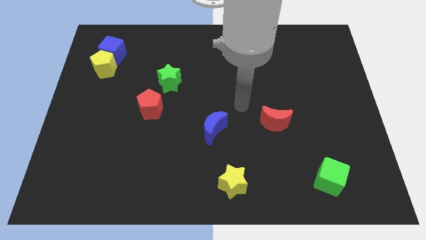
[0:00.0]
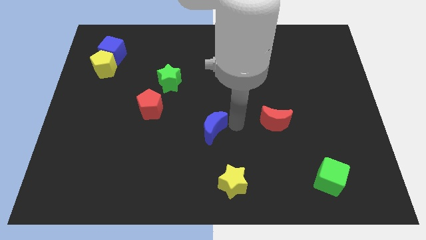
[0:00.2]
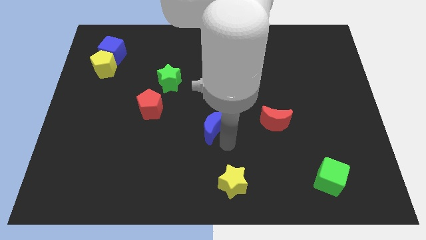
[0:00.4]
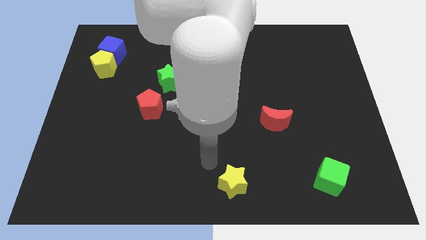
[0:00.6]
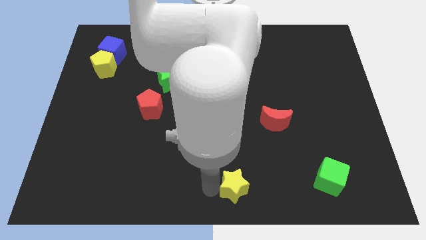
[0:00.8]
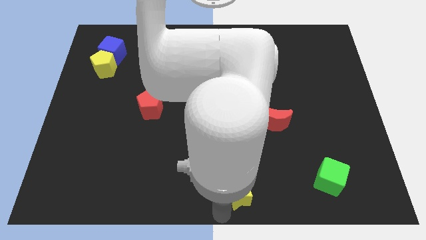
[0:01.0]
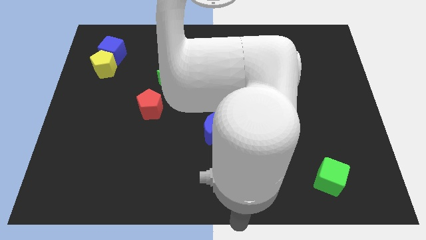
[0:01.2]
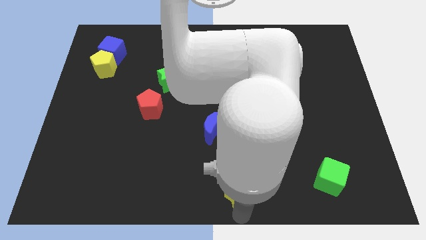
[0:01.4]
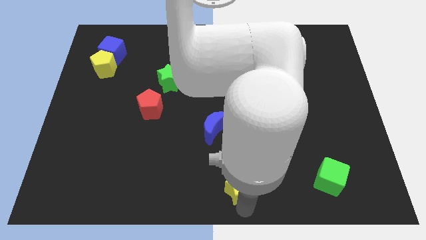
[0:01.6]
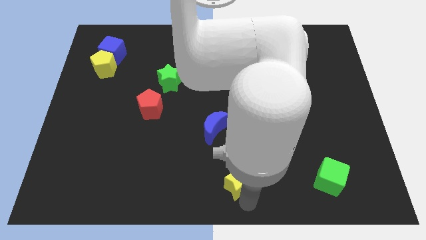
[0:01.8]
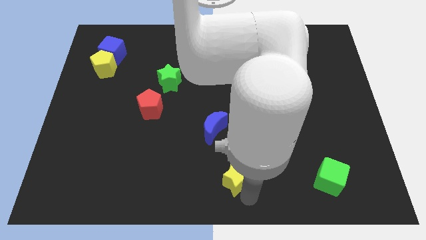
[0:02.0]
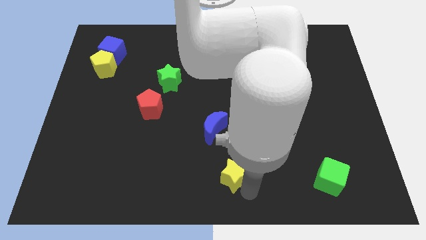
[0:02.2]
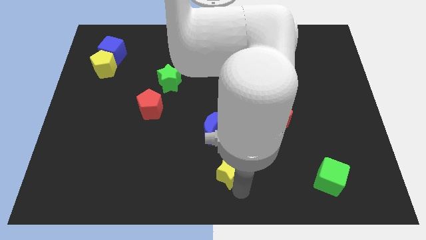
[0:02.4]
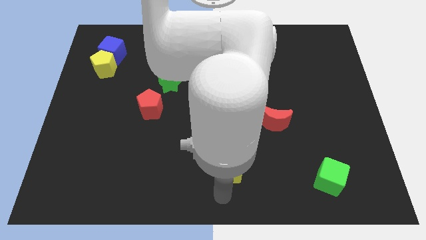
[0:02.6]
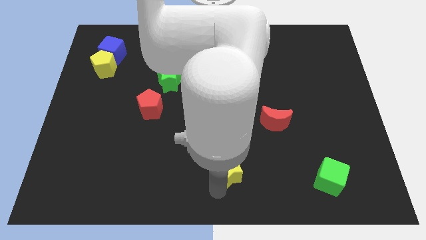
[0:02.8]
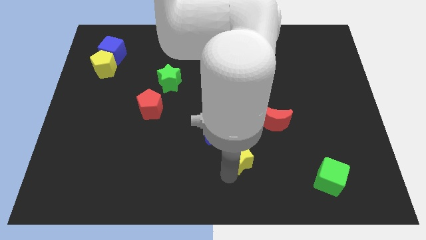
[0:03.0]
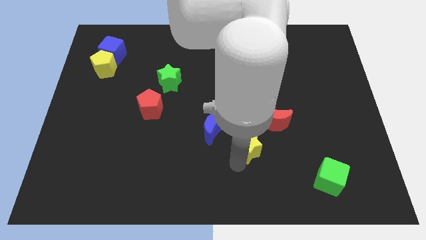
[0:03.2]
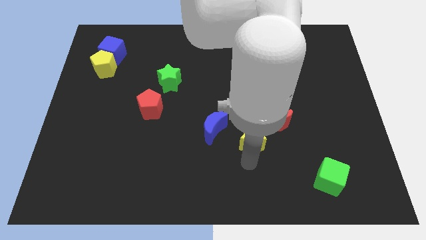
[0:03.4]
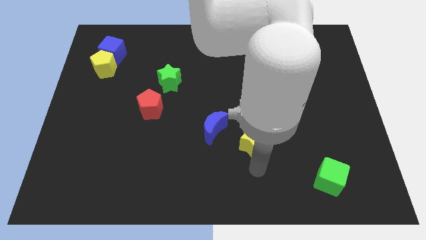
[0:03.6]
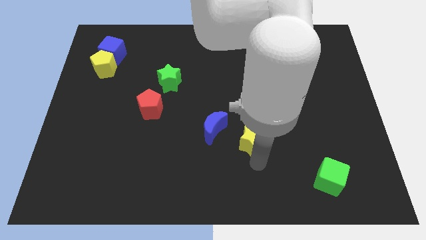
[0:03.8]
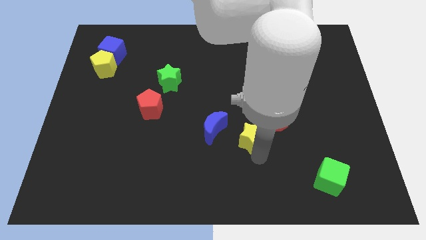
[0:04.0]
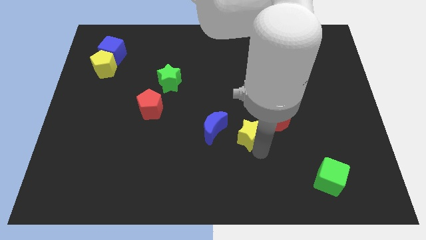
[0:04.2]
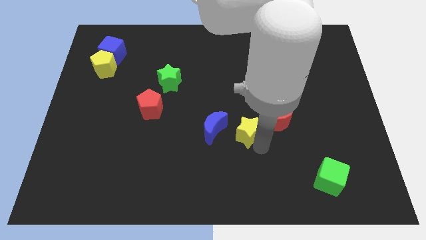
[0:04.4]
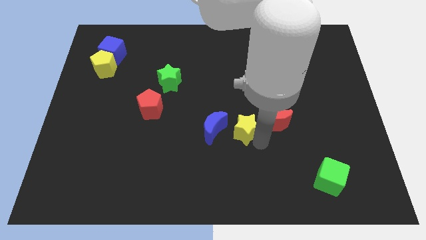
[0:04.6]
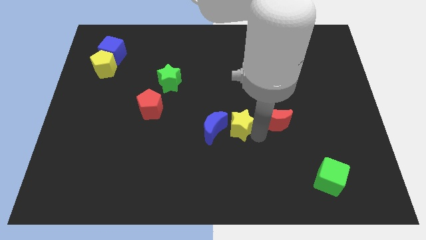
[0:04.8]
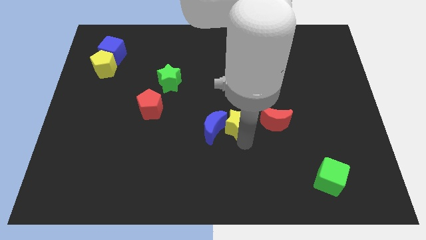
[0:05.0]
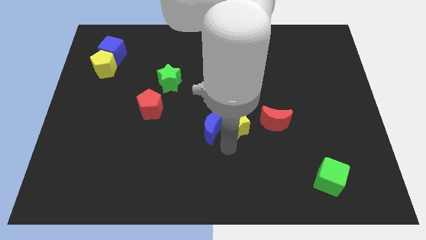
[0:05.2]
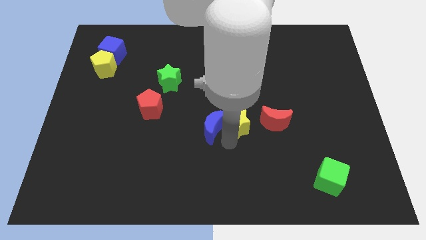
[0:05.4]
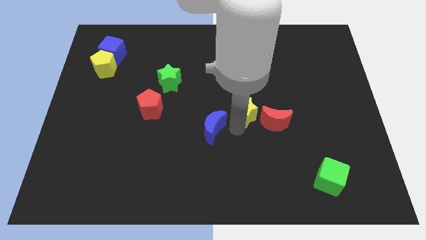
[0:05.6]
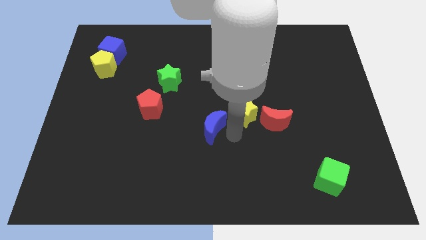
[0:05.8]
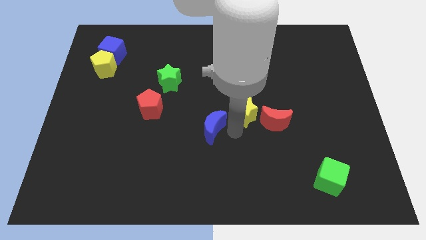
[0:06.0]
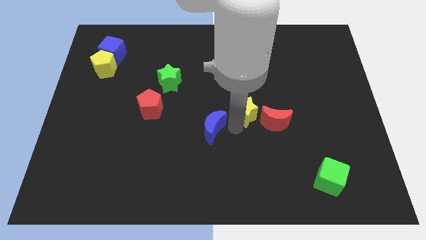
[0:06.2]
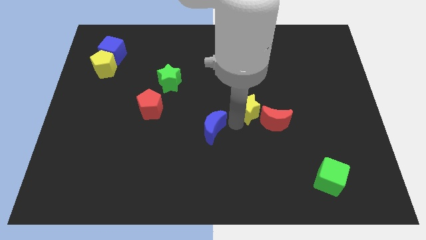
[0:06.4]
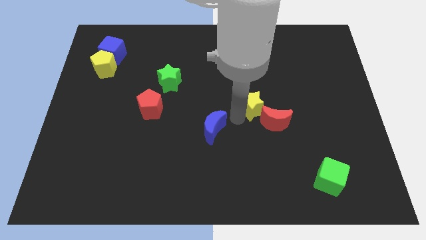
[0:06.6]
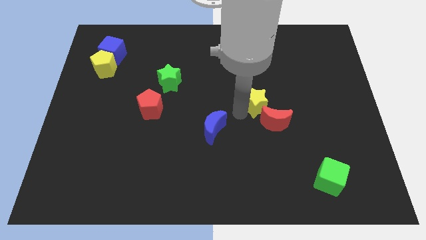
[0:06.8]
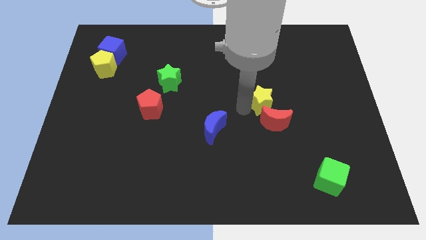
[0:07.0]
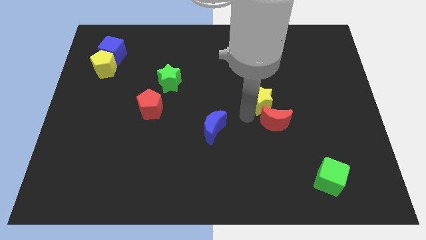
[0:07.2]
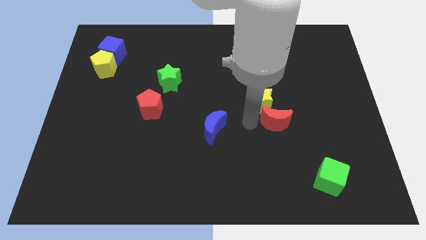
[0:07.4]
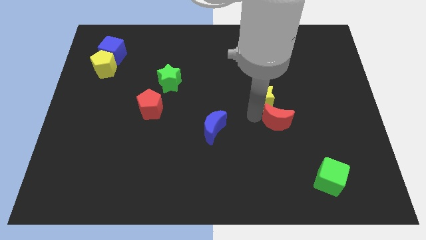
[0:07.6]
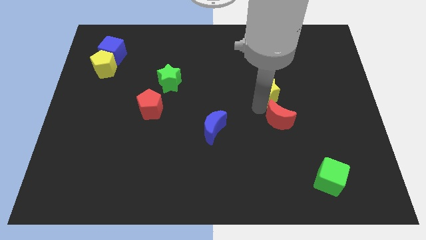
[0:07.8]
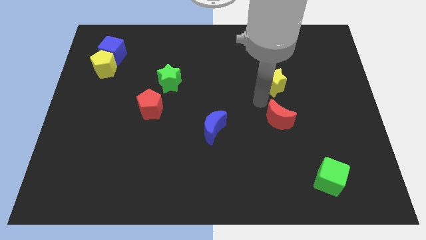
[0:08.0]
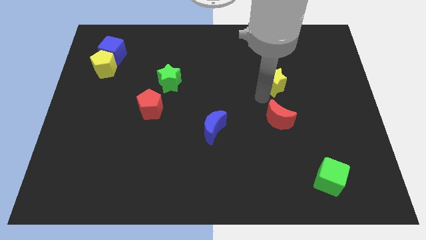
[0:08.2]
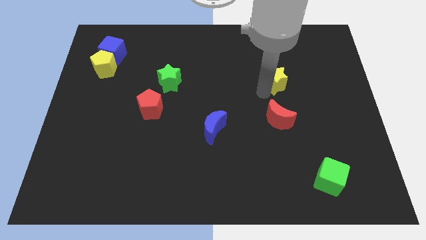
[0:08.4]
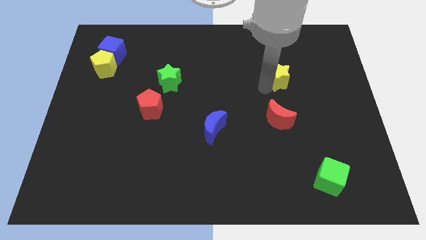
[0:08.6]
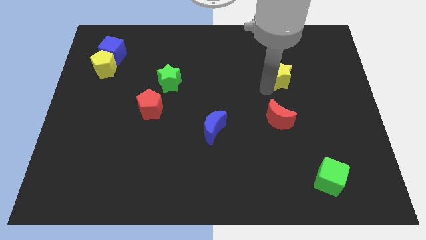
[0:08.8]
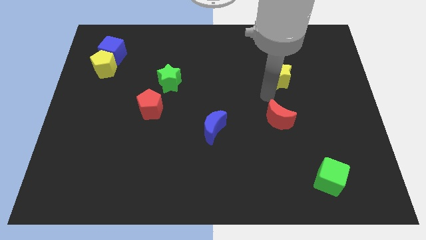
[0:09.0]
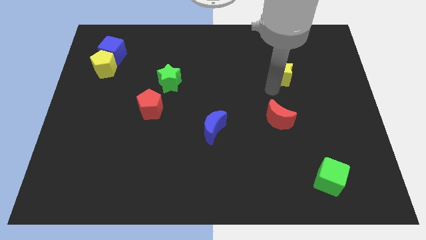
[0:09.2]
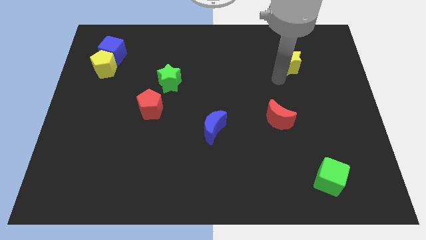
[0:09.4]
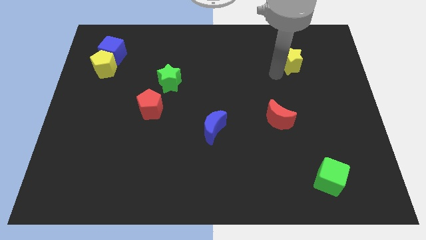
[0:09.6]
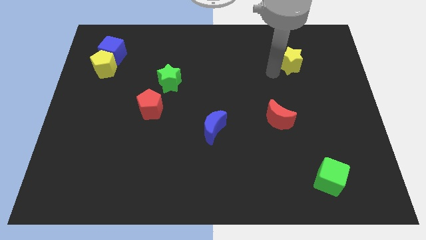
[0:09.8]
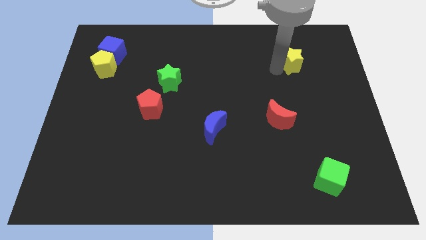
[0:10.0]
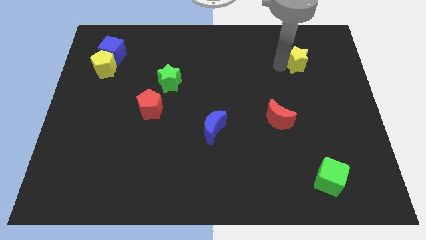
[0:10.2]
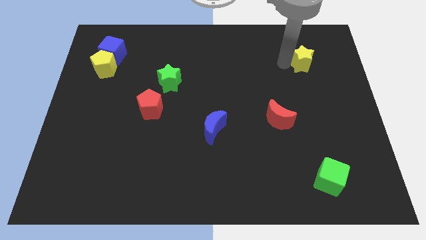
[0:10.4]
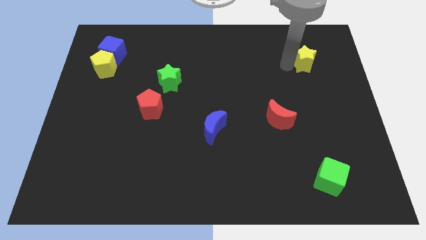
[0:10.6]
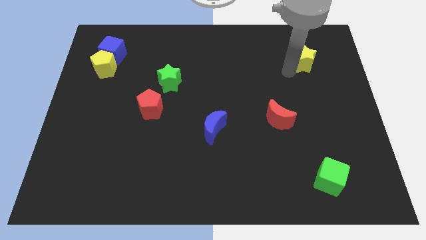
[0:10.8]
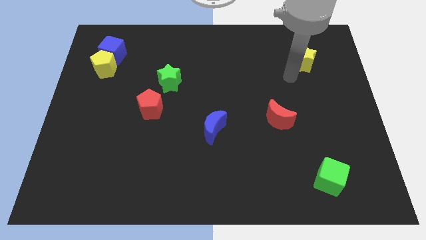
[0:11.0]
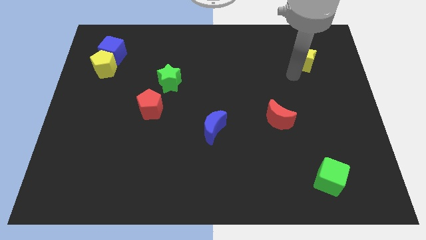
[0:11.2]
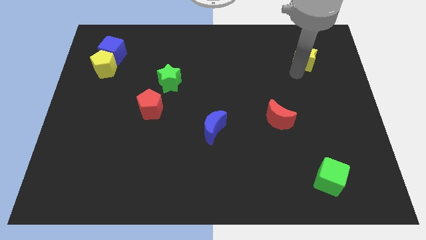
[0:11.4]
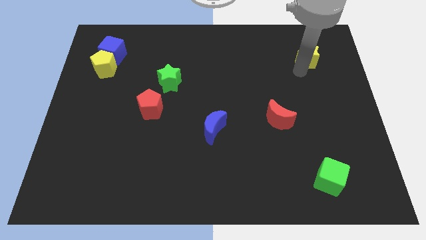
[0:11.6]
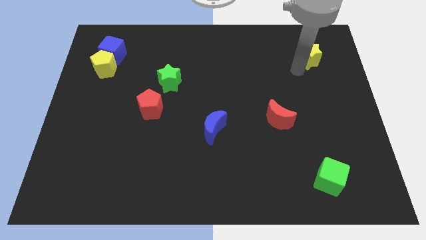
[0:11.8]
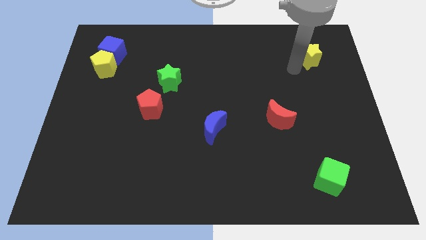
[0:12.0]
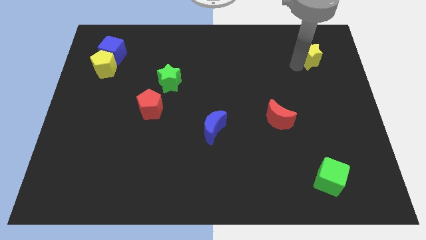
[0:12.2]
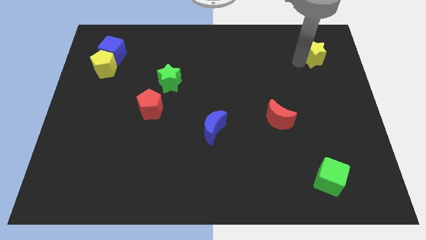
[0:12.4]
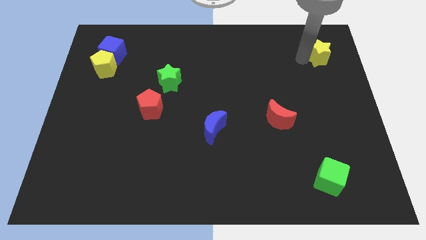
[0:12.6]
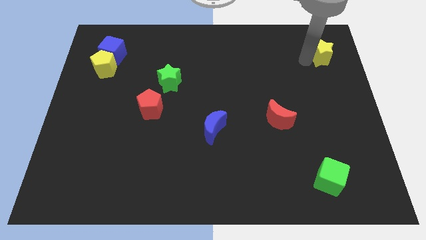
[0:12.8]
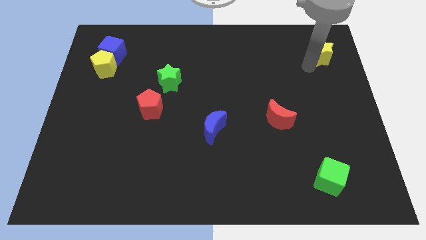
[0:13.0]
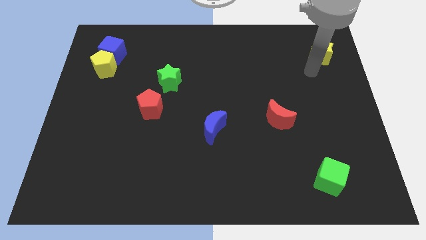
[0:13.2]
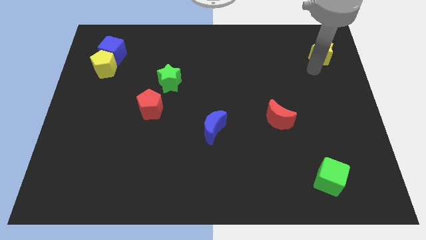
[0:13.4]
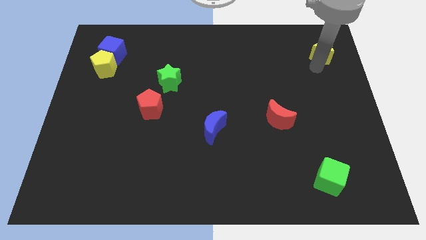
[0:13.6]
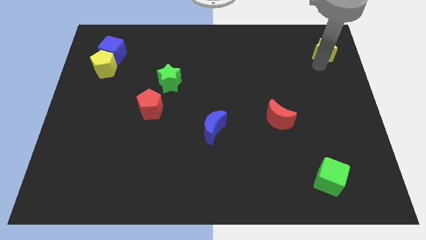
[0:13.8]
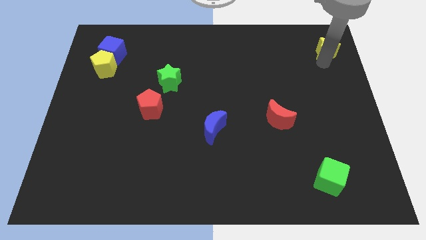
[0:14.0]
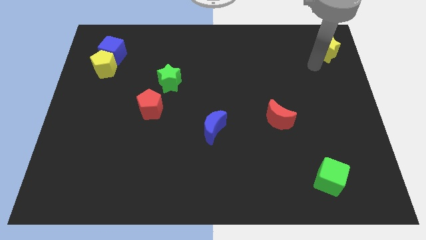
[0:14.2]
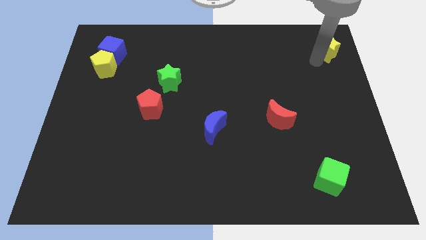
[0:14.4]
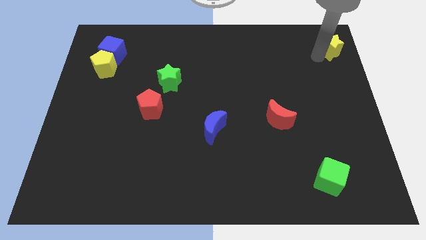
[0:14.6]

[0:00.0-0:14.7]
move the yellow star to the top right of the board
